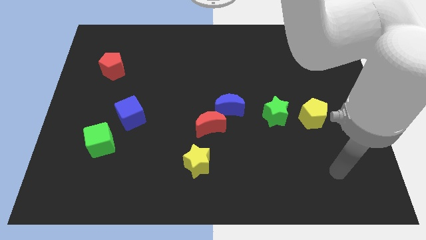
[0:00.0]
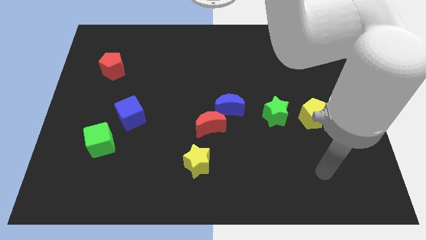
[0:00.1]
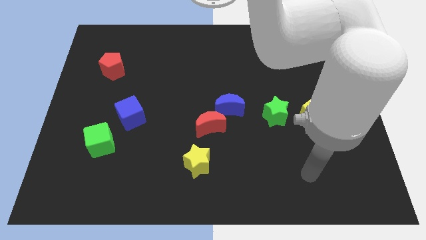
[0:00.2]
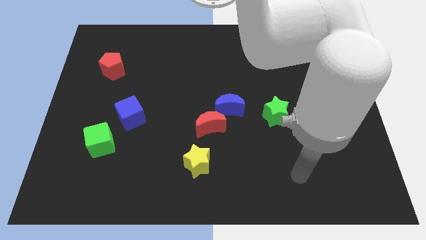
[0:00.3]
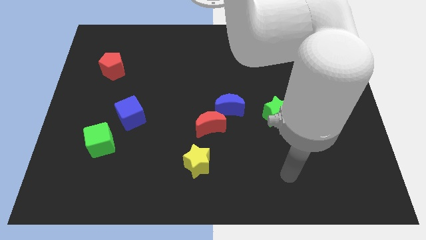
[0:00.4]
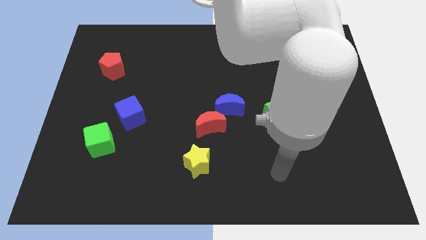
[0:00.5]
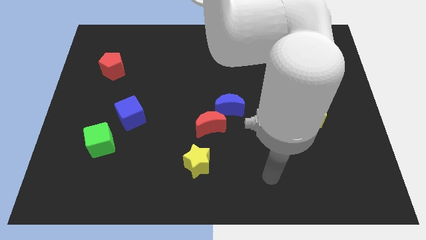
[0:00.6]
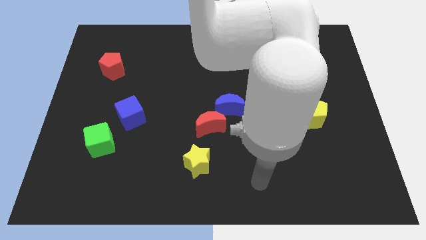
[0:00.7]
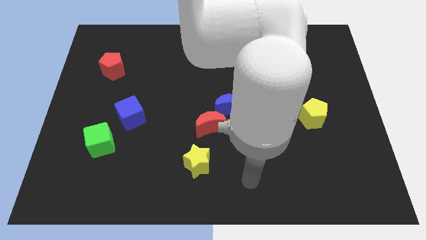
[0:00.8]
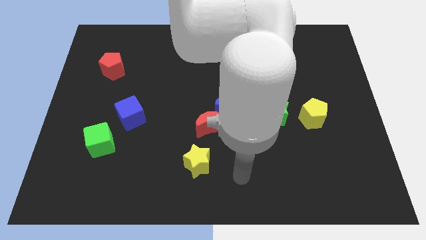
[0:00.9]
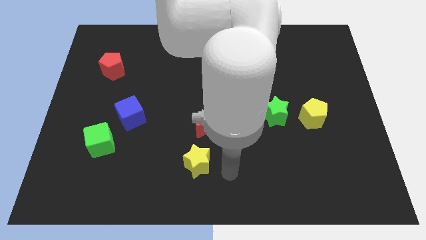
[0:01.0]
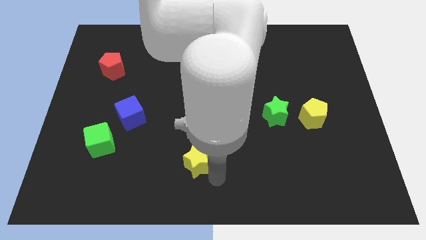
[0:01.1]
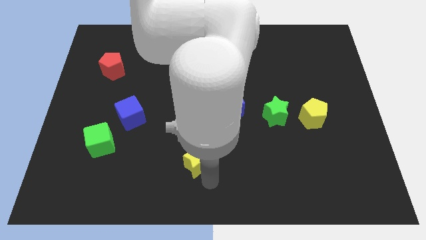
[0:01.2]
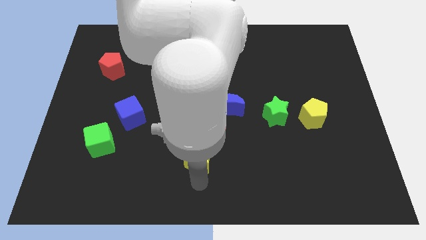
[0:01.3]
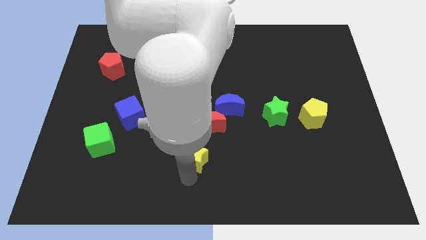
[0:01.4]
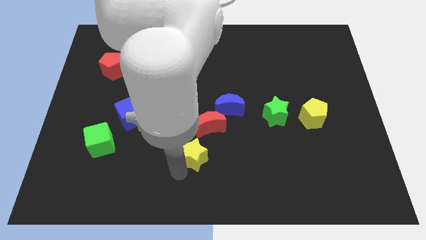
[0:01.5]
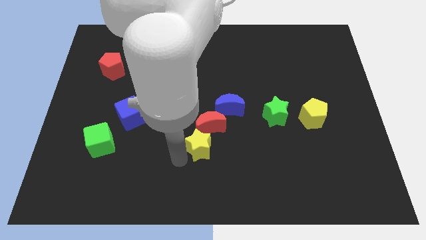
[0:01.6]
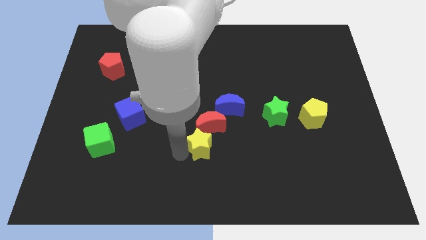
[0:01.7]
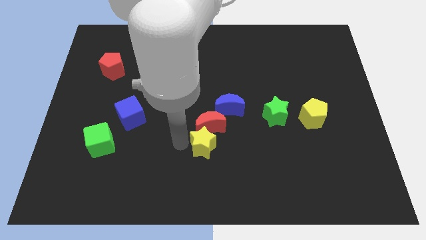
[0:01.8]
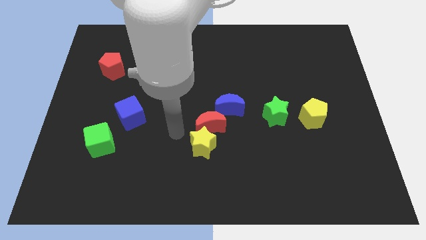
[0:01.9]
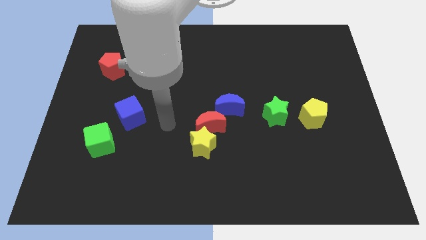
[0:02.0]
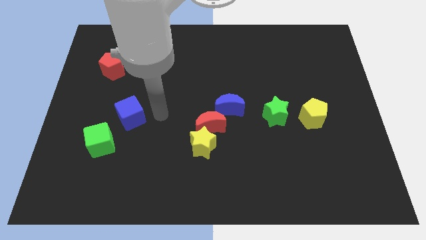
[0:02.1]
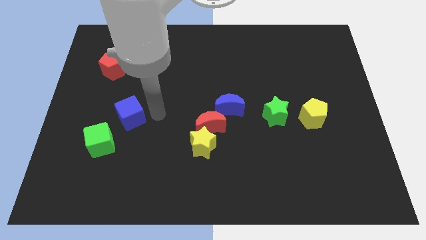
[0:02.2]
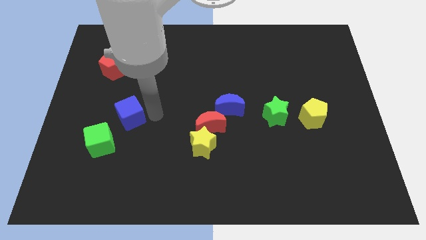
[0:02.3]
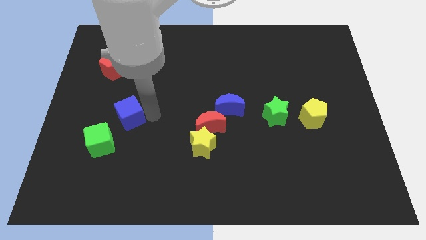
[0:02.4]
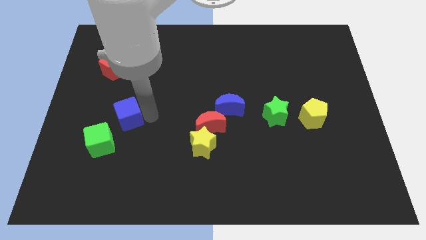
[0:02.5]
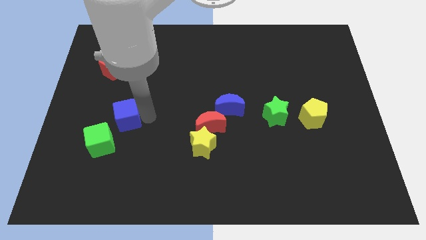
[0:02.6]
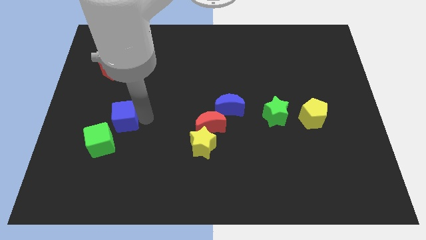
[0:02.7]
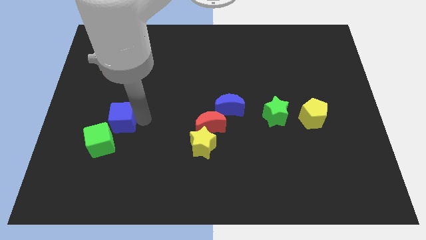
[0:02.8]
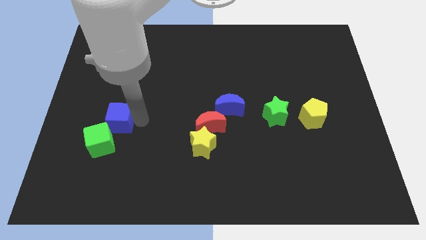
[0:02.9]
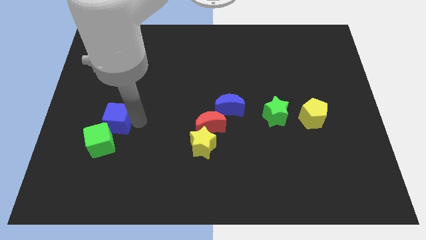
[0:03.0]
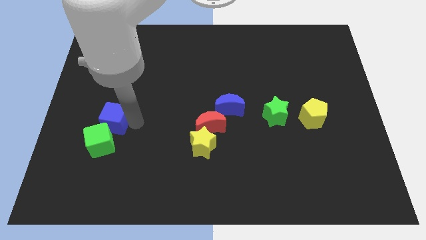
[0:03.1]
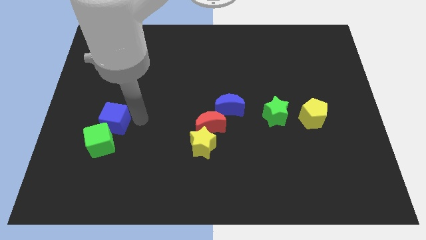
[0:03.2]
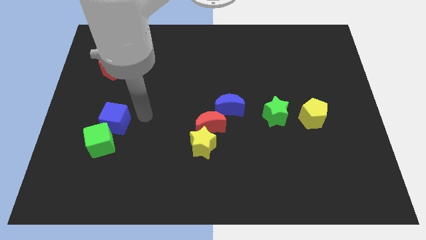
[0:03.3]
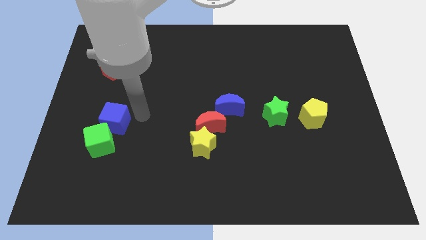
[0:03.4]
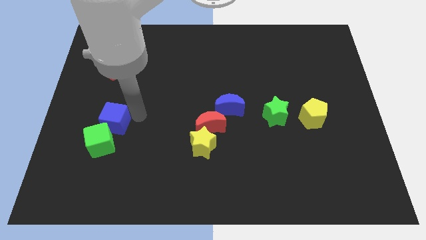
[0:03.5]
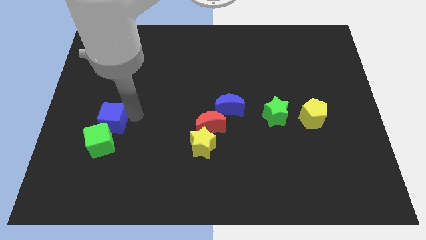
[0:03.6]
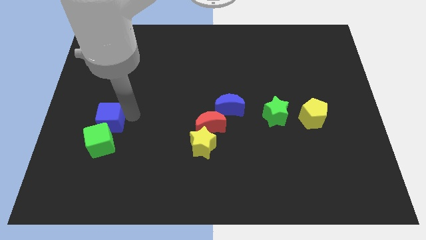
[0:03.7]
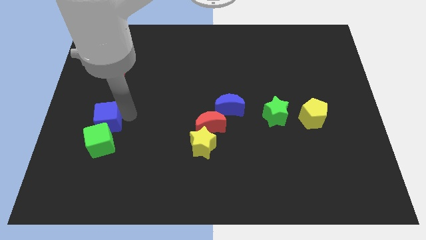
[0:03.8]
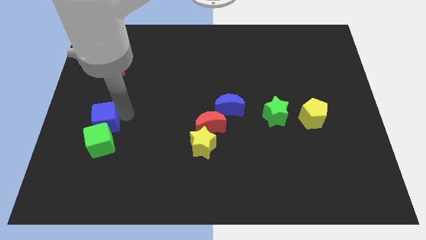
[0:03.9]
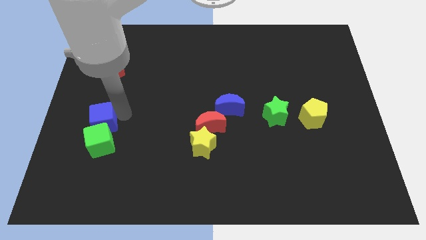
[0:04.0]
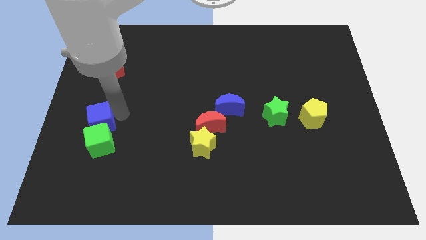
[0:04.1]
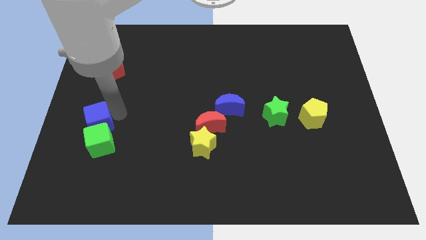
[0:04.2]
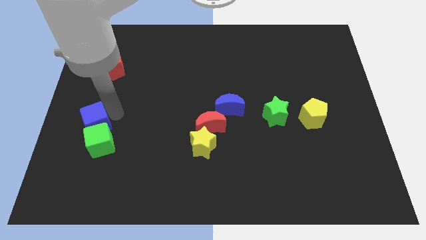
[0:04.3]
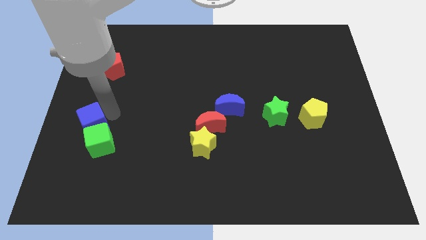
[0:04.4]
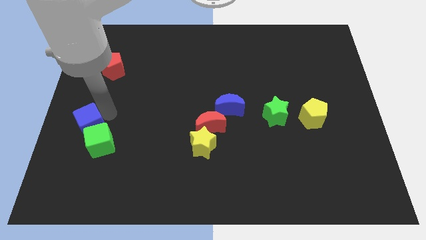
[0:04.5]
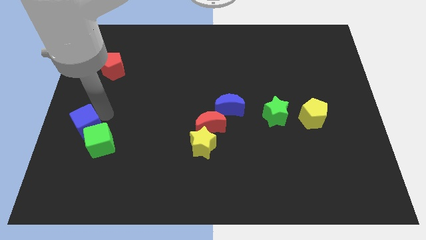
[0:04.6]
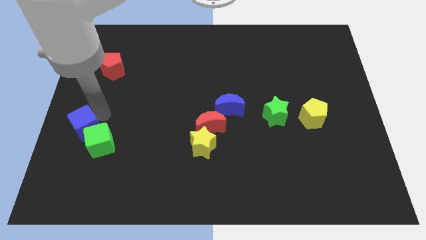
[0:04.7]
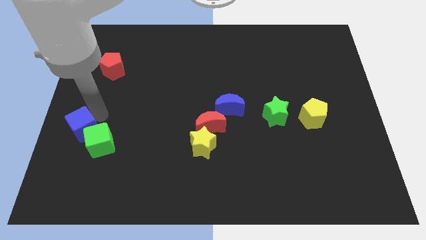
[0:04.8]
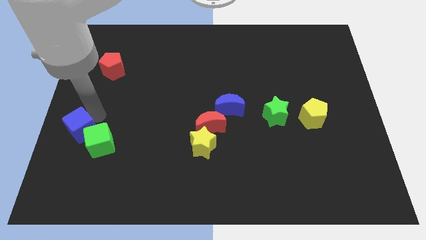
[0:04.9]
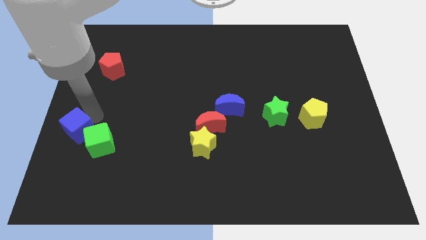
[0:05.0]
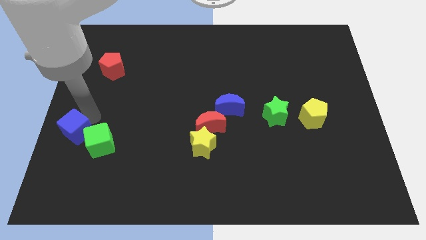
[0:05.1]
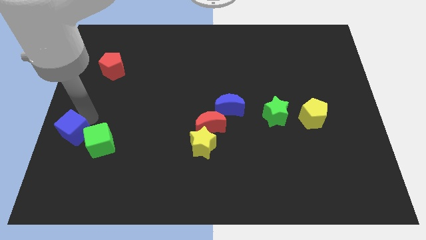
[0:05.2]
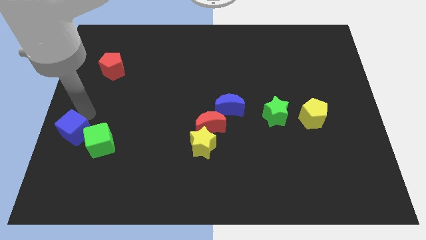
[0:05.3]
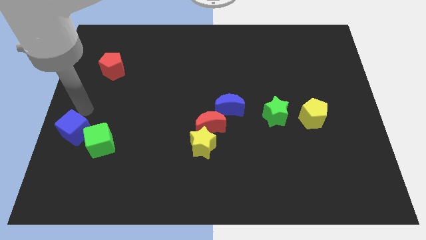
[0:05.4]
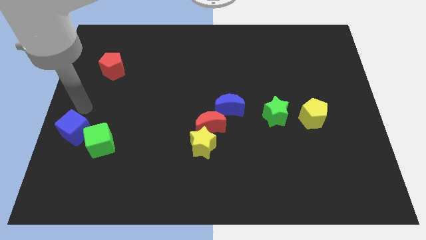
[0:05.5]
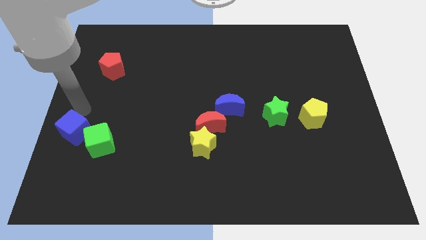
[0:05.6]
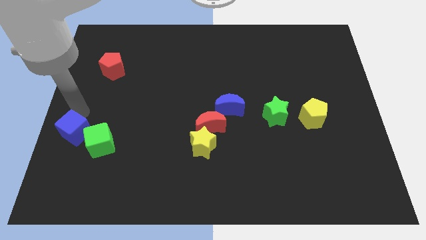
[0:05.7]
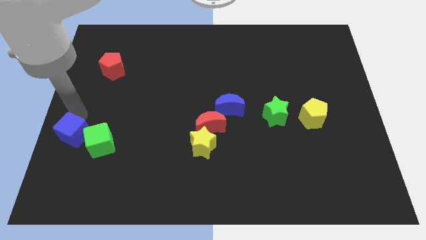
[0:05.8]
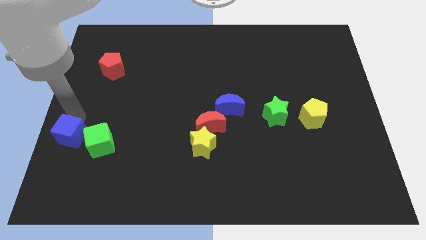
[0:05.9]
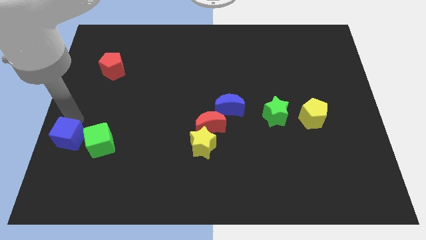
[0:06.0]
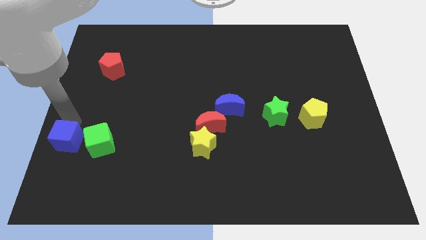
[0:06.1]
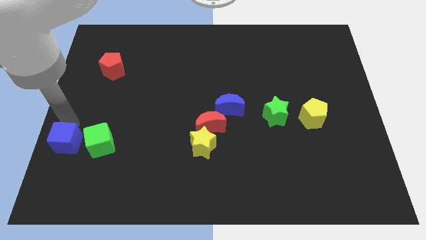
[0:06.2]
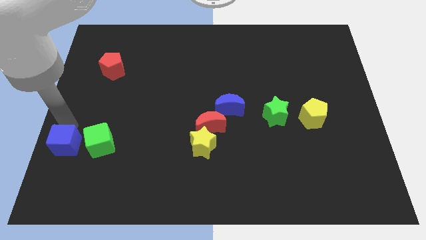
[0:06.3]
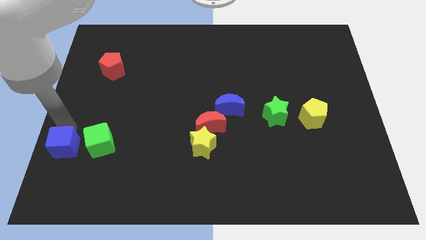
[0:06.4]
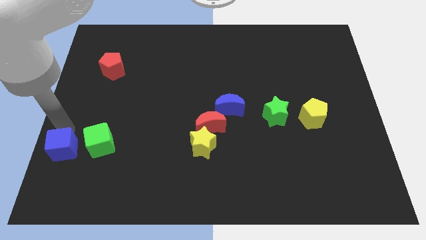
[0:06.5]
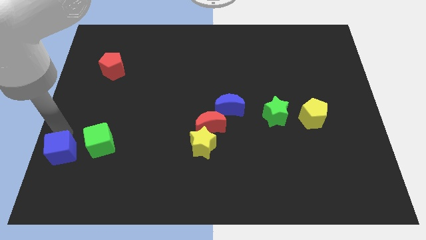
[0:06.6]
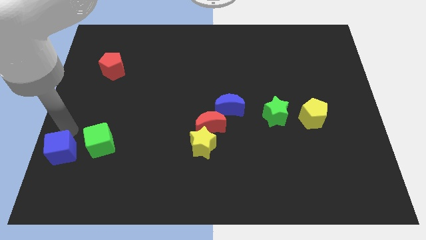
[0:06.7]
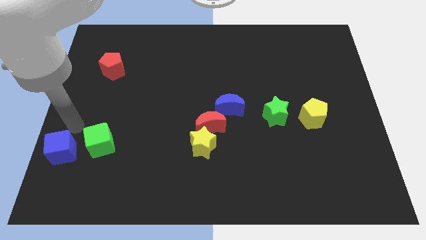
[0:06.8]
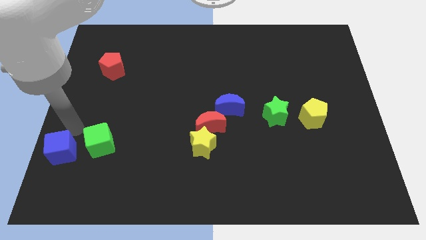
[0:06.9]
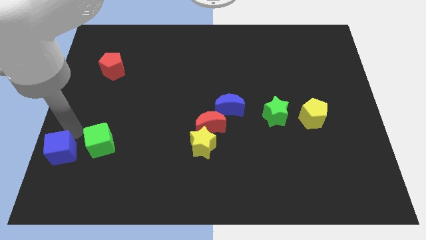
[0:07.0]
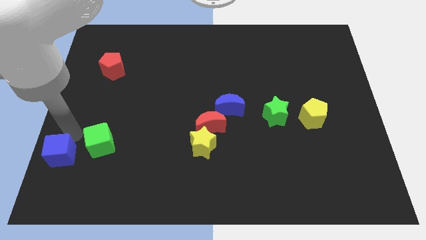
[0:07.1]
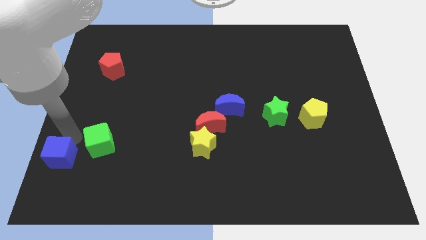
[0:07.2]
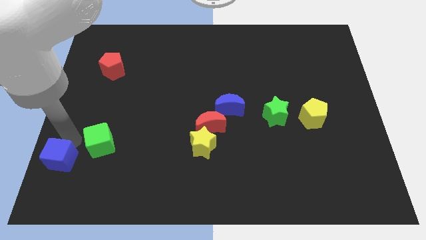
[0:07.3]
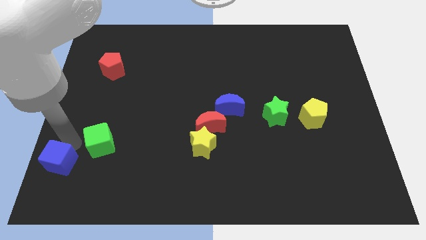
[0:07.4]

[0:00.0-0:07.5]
move the blue cube to the lower left corner
